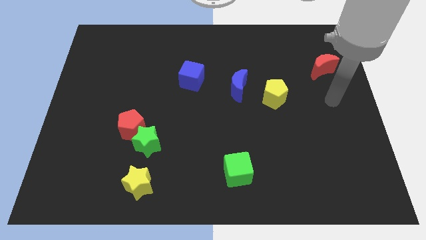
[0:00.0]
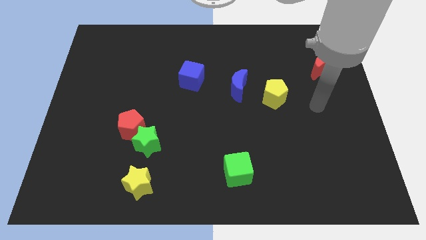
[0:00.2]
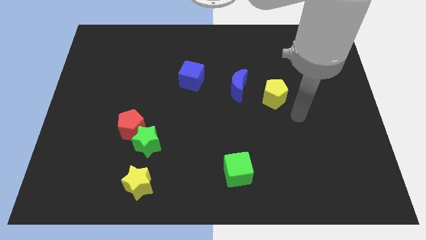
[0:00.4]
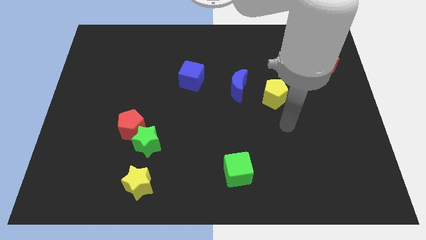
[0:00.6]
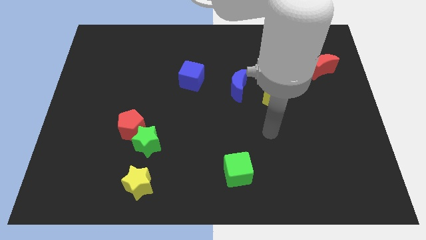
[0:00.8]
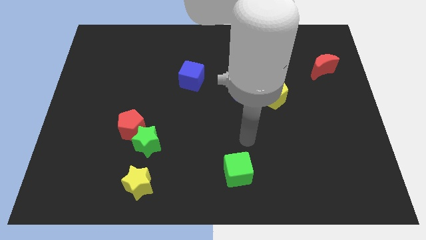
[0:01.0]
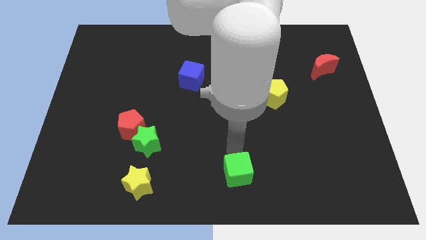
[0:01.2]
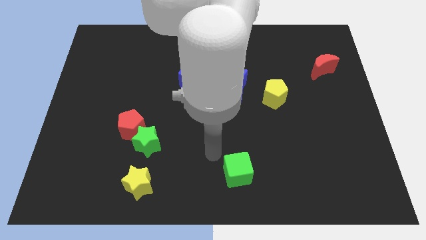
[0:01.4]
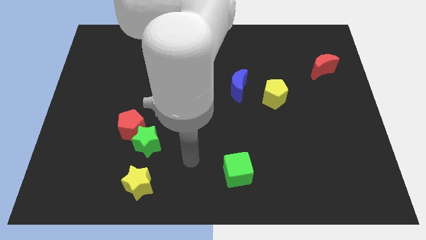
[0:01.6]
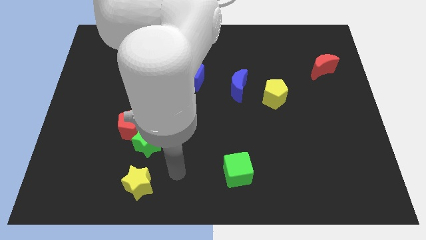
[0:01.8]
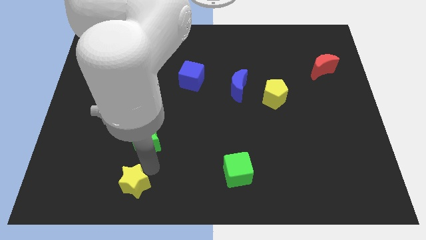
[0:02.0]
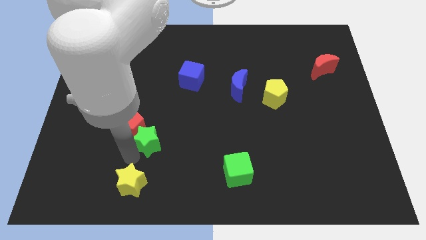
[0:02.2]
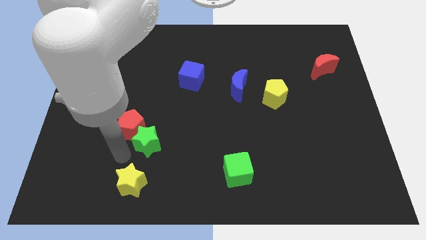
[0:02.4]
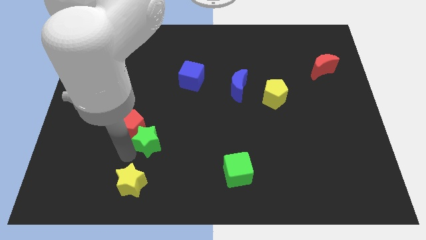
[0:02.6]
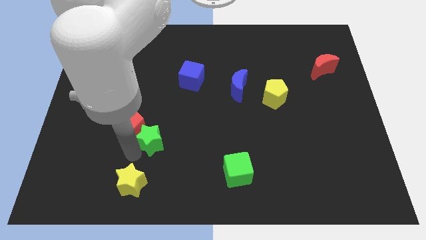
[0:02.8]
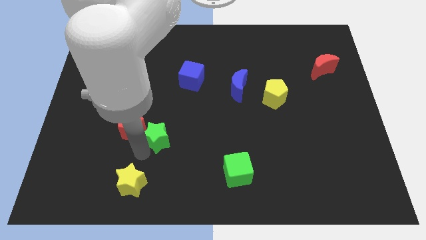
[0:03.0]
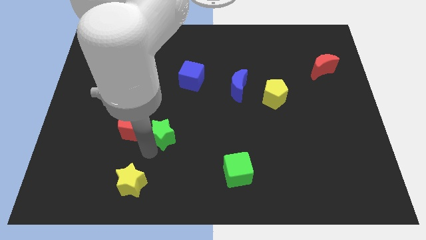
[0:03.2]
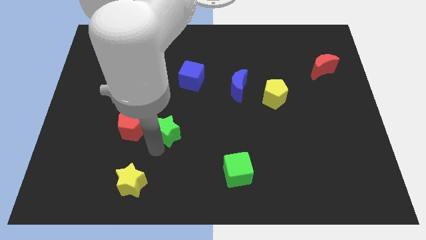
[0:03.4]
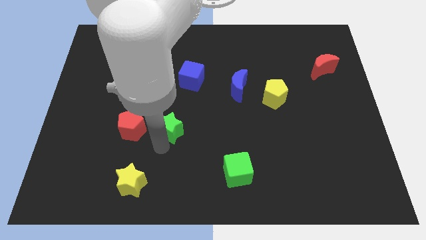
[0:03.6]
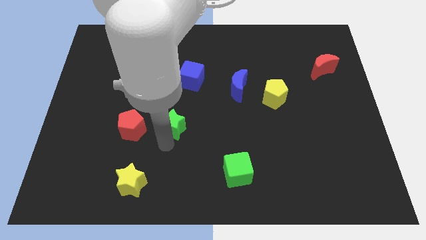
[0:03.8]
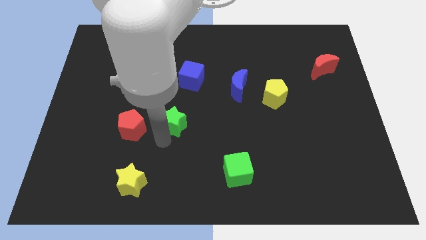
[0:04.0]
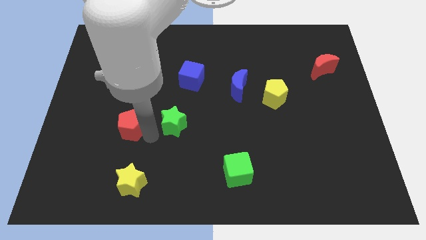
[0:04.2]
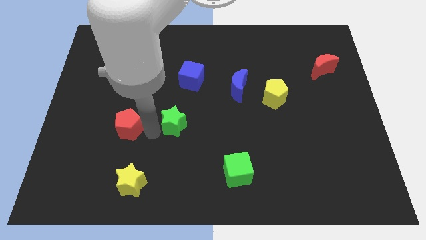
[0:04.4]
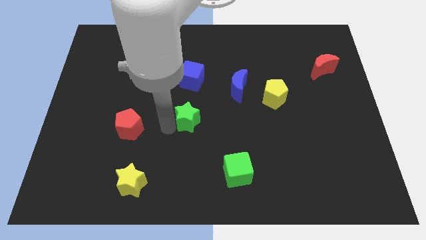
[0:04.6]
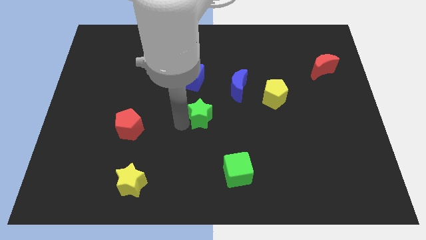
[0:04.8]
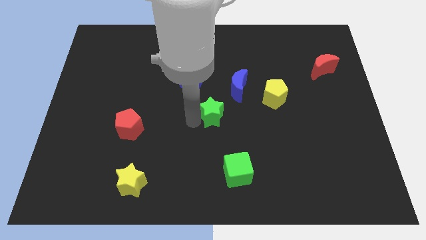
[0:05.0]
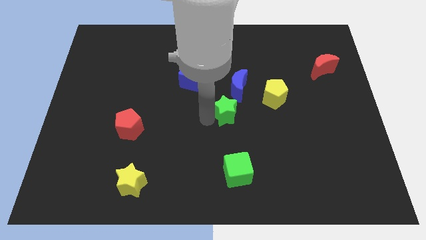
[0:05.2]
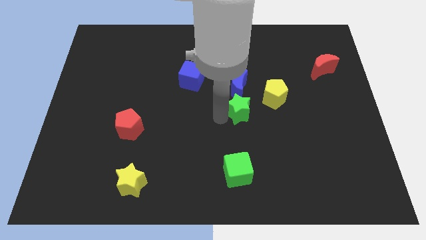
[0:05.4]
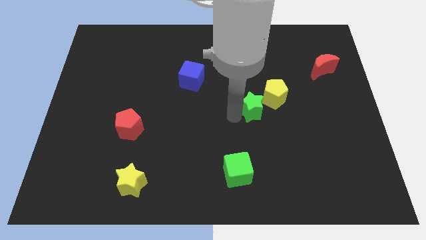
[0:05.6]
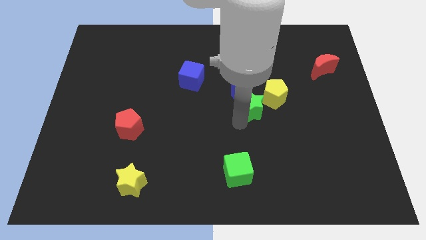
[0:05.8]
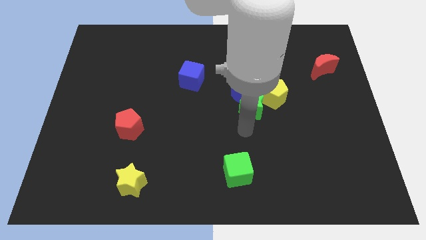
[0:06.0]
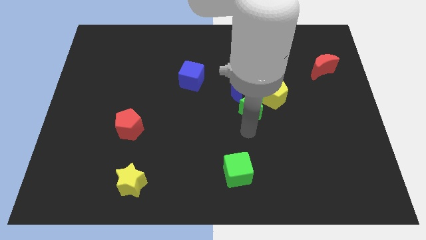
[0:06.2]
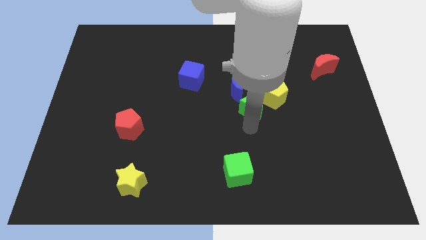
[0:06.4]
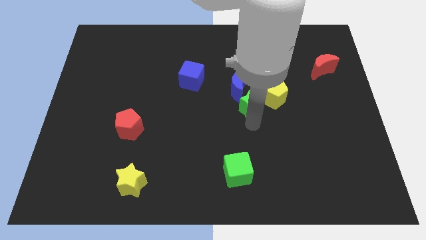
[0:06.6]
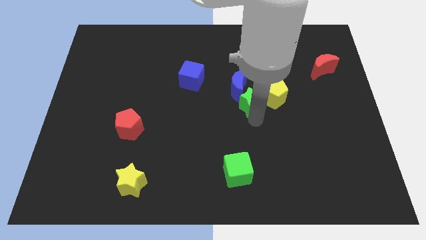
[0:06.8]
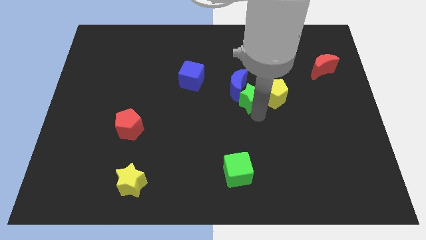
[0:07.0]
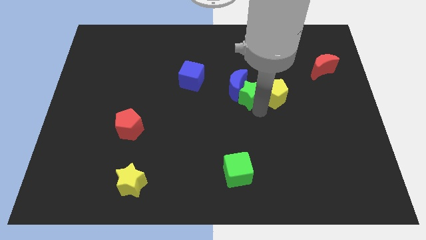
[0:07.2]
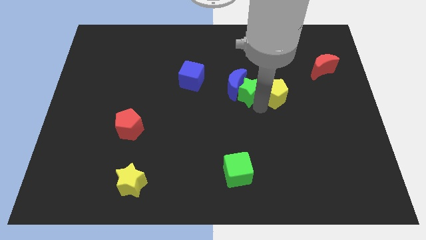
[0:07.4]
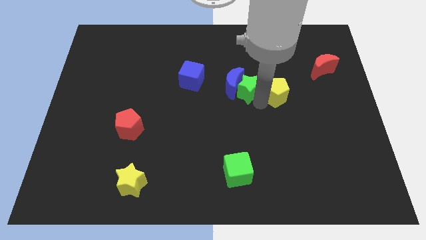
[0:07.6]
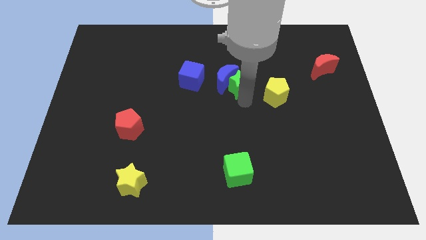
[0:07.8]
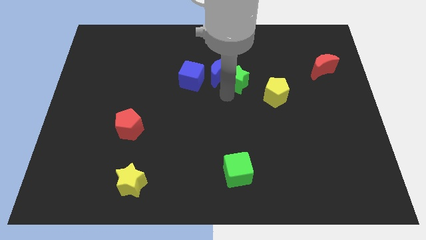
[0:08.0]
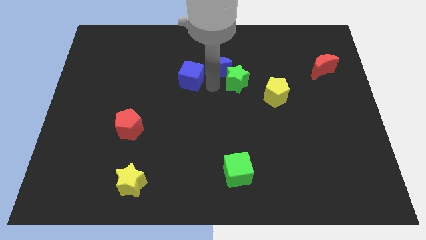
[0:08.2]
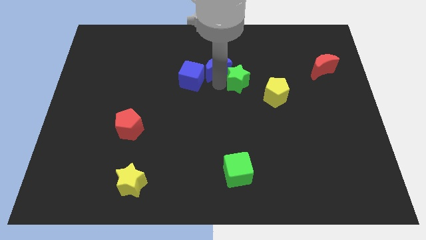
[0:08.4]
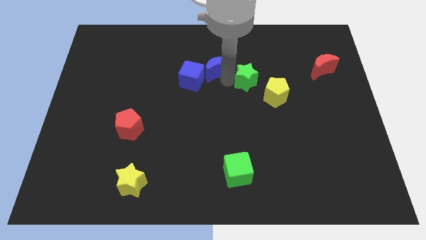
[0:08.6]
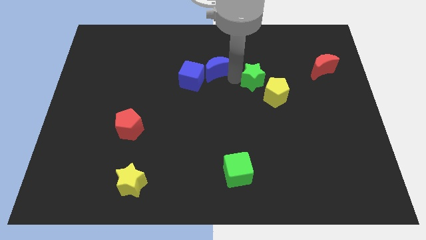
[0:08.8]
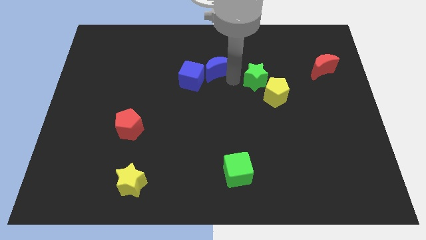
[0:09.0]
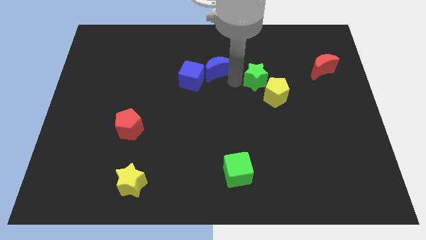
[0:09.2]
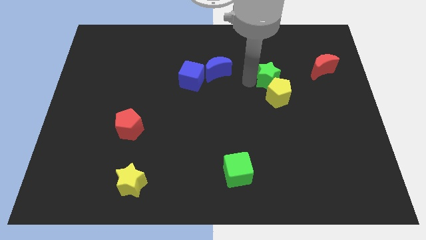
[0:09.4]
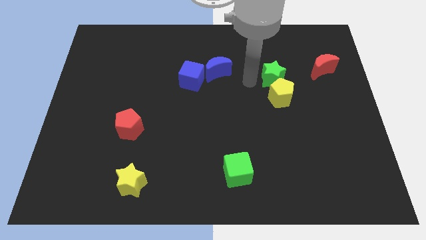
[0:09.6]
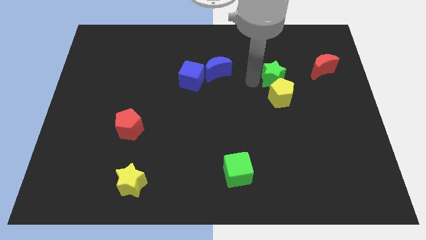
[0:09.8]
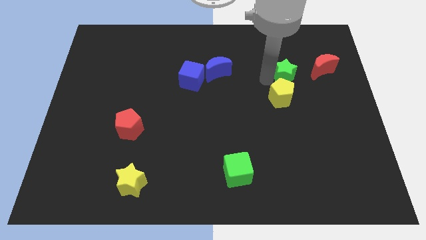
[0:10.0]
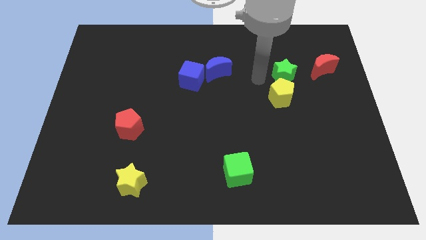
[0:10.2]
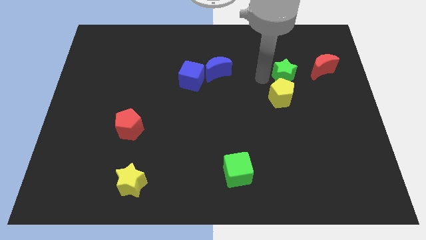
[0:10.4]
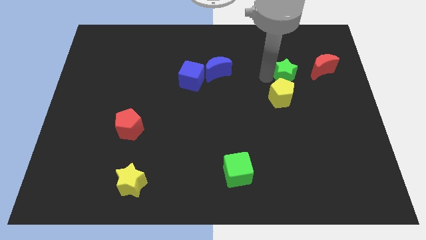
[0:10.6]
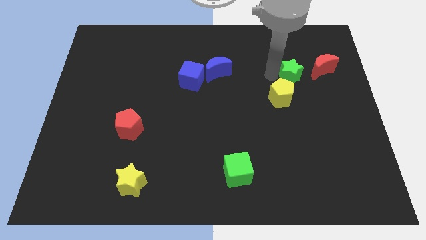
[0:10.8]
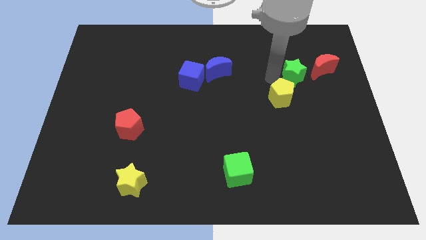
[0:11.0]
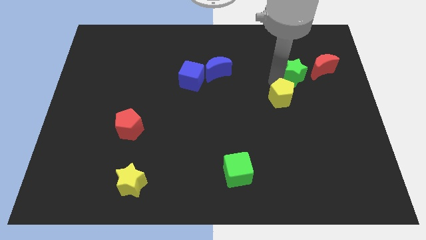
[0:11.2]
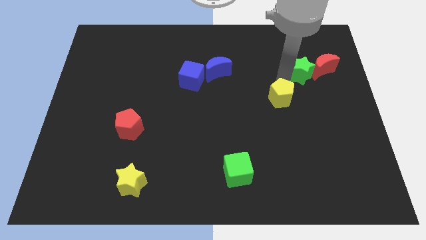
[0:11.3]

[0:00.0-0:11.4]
move the green star close to the red moon

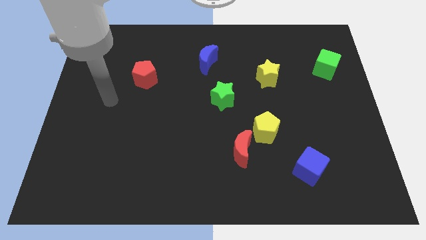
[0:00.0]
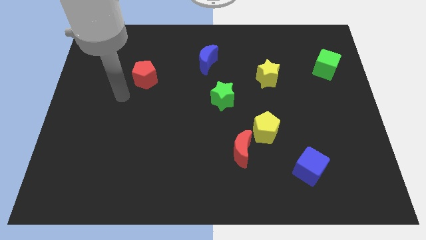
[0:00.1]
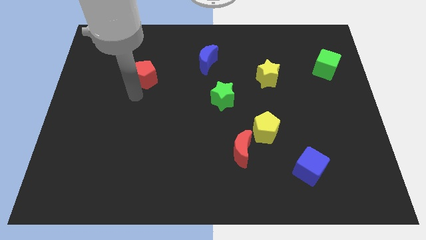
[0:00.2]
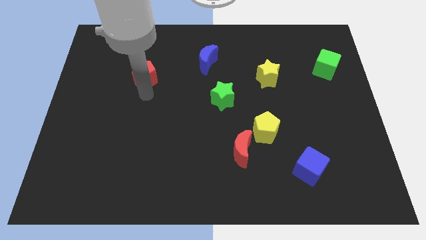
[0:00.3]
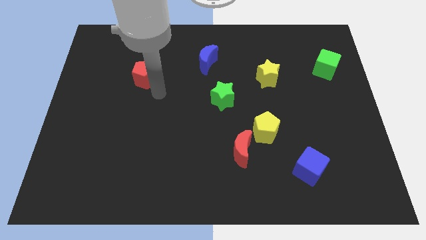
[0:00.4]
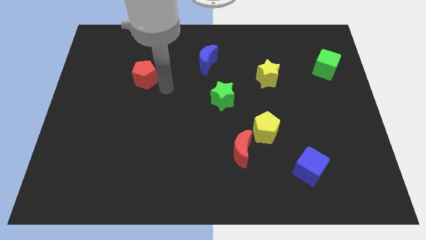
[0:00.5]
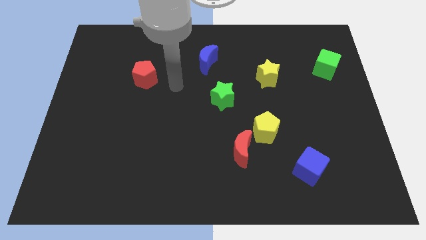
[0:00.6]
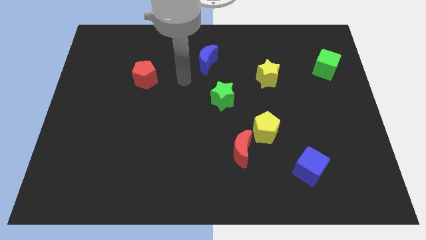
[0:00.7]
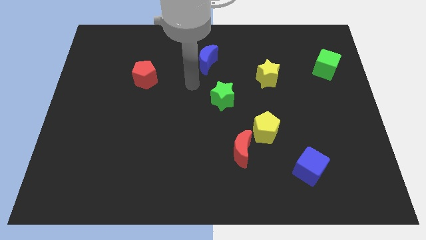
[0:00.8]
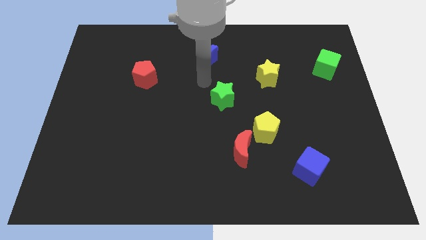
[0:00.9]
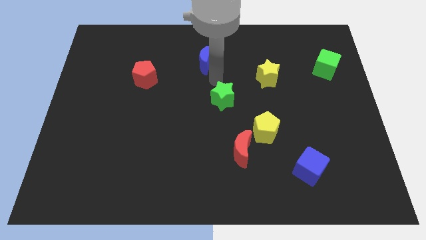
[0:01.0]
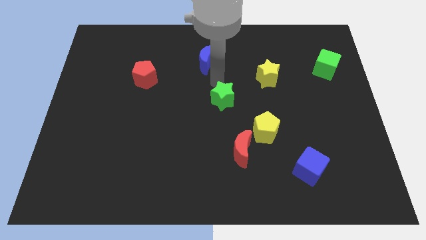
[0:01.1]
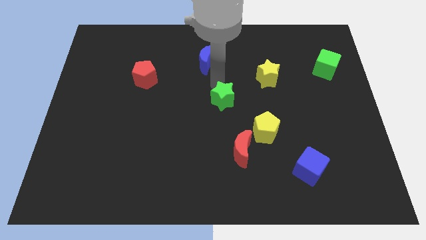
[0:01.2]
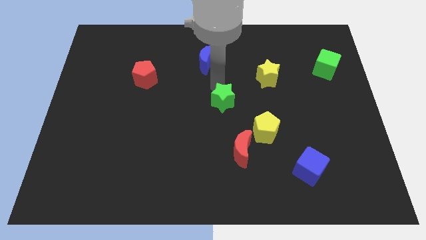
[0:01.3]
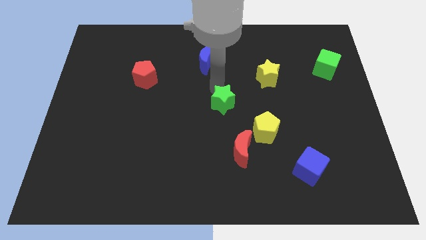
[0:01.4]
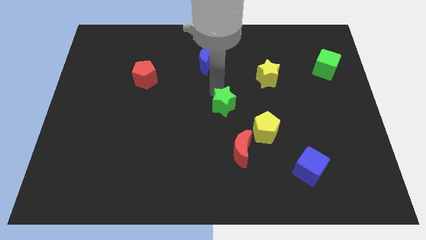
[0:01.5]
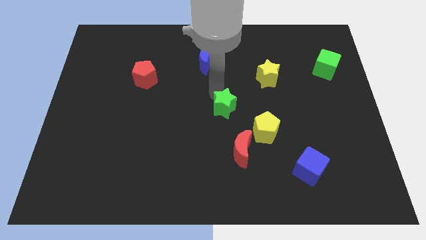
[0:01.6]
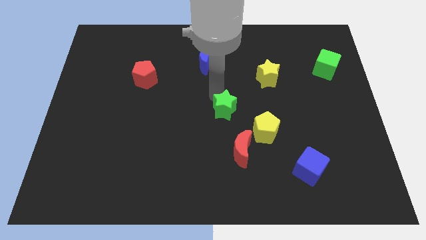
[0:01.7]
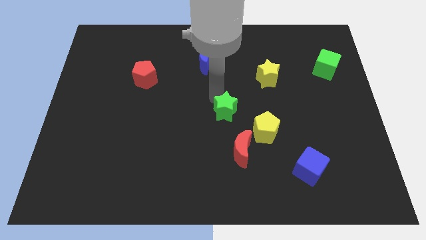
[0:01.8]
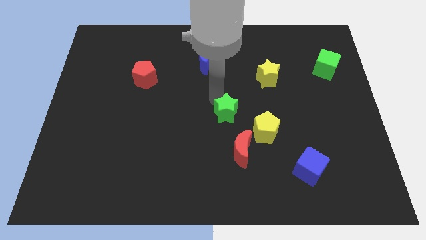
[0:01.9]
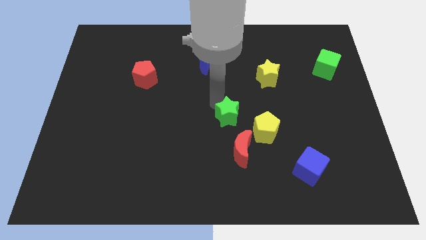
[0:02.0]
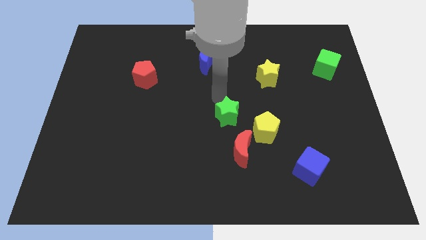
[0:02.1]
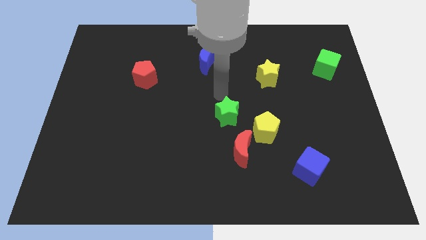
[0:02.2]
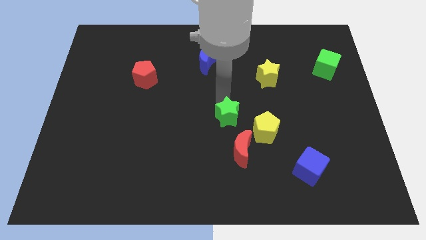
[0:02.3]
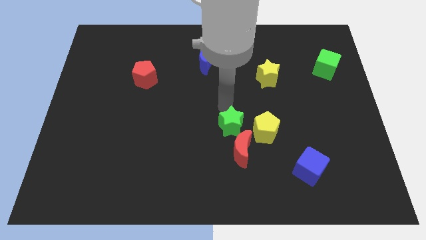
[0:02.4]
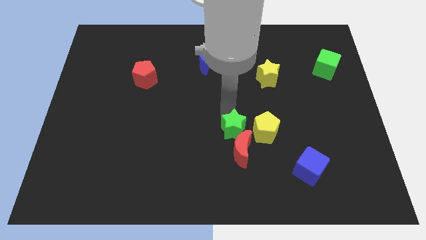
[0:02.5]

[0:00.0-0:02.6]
push the green star close to the red moon
